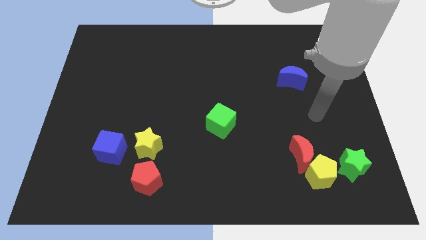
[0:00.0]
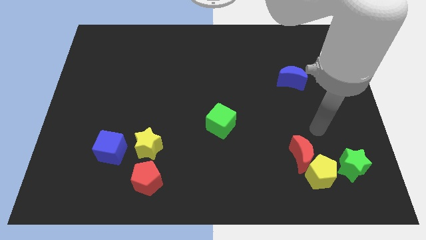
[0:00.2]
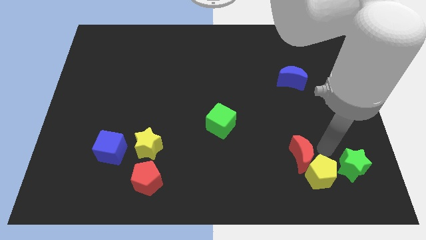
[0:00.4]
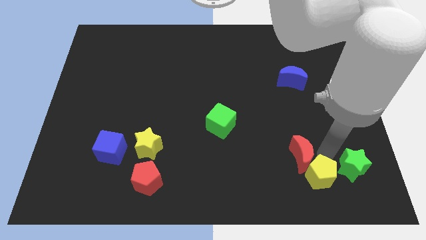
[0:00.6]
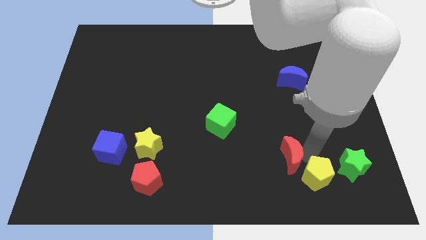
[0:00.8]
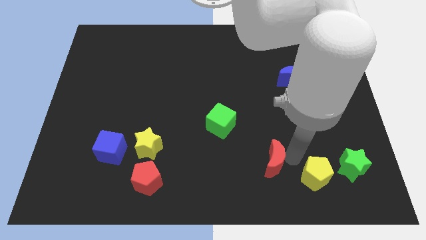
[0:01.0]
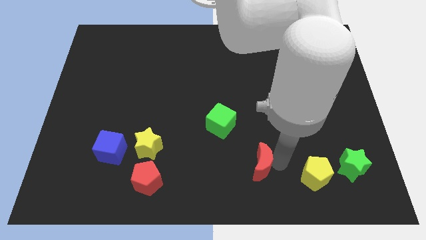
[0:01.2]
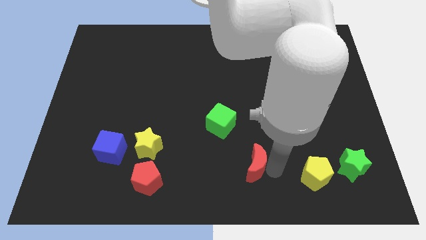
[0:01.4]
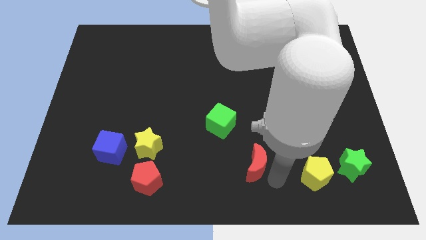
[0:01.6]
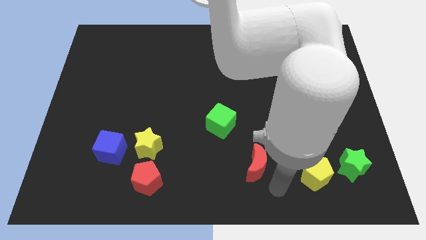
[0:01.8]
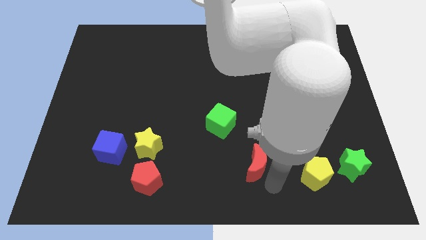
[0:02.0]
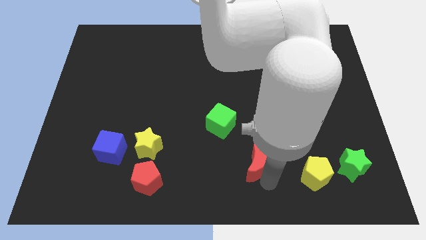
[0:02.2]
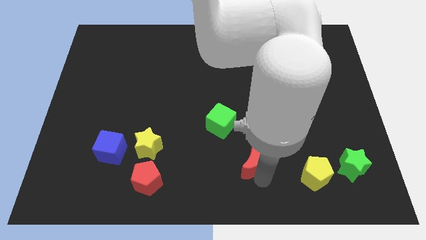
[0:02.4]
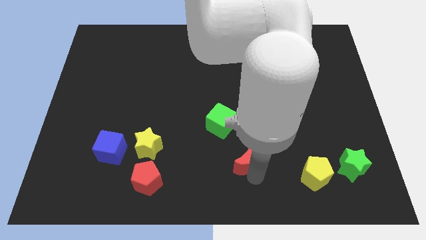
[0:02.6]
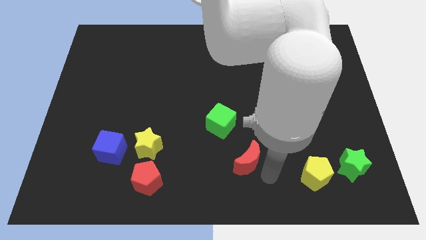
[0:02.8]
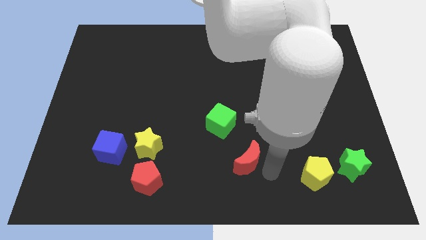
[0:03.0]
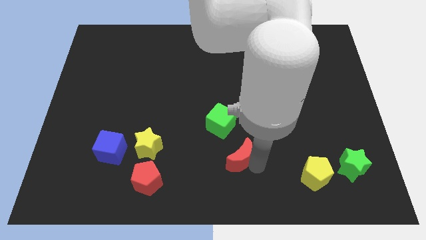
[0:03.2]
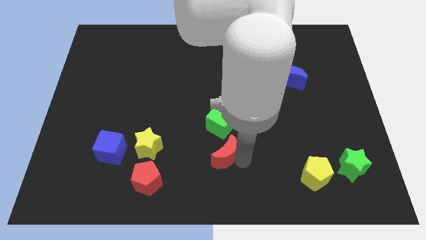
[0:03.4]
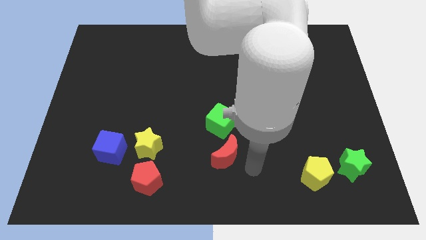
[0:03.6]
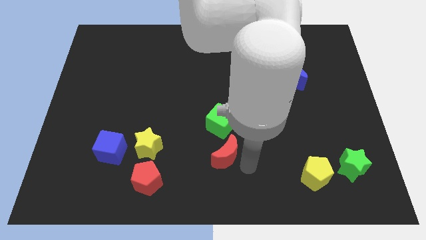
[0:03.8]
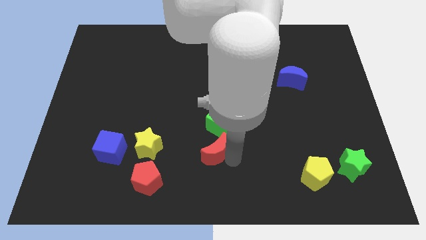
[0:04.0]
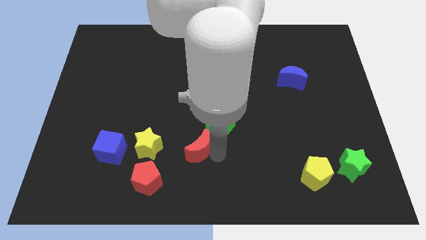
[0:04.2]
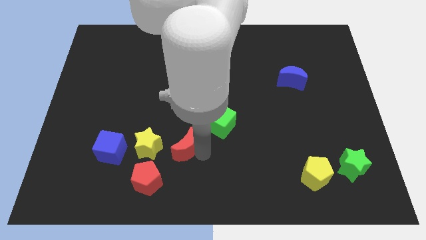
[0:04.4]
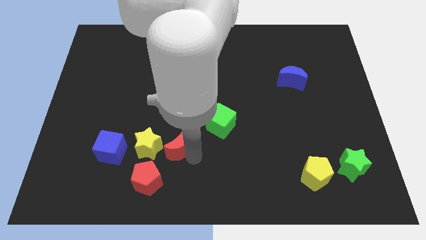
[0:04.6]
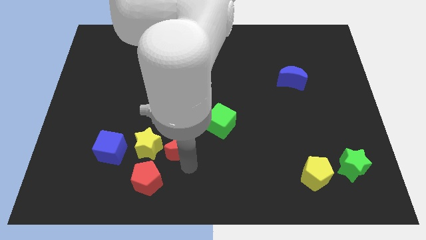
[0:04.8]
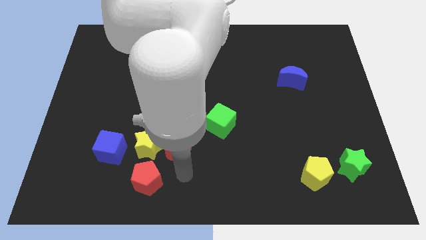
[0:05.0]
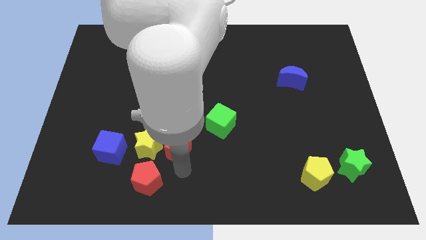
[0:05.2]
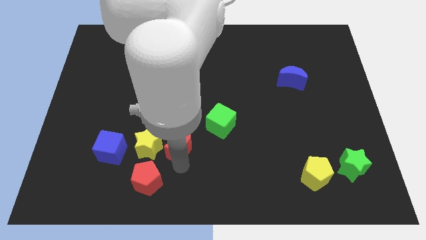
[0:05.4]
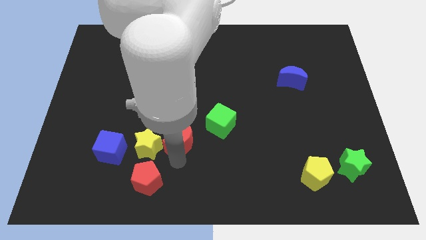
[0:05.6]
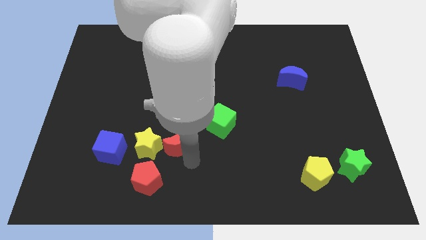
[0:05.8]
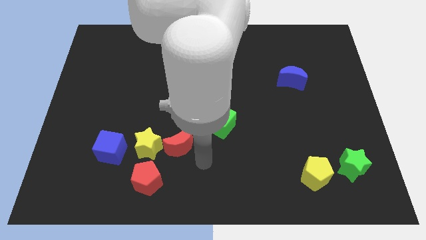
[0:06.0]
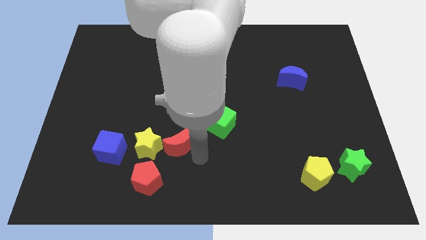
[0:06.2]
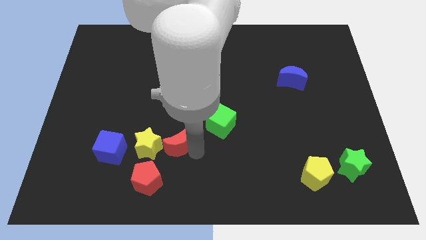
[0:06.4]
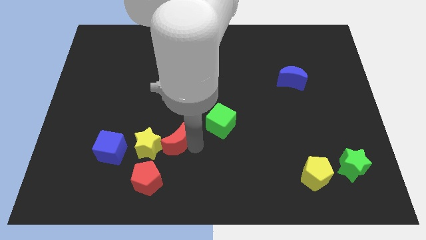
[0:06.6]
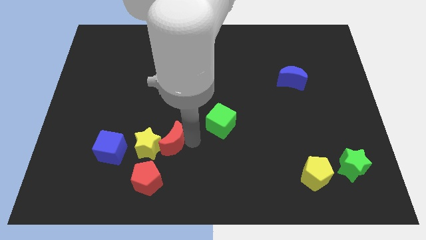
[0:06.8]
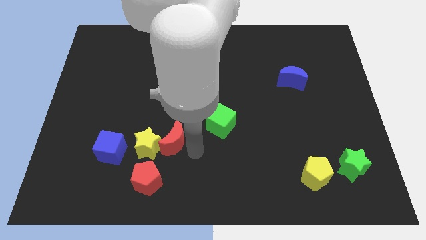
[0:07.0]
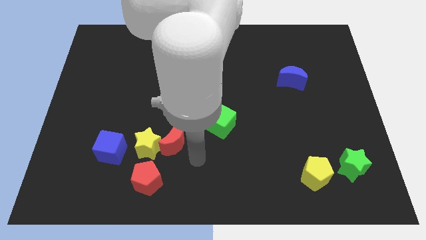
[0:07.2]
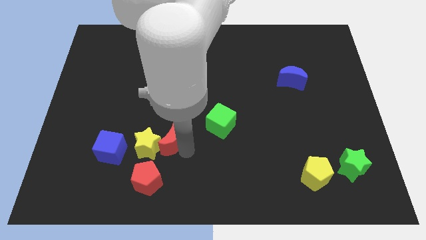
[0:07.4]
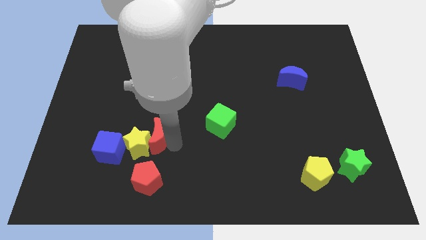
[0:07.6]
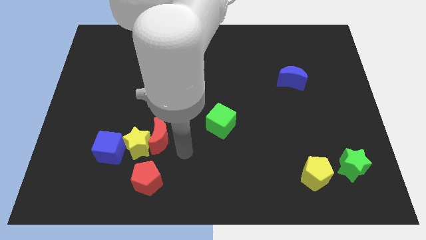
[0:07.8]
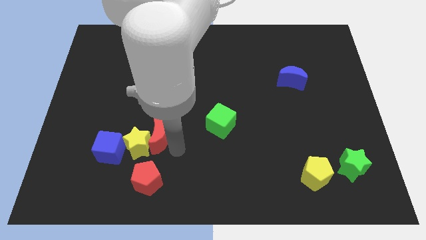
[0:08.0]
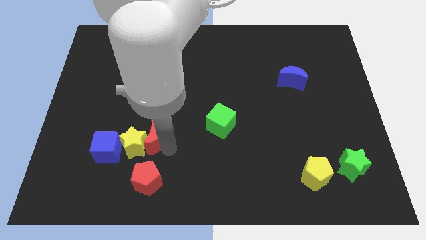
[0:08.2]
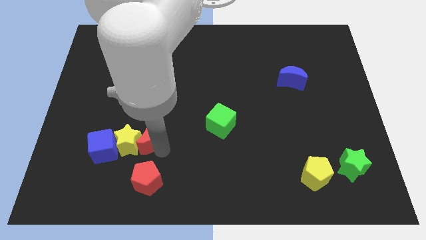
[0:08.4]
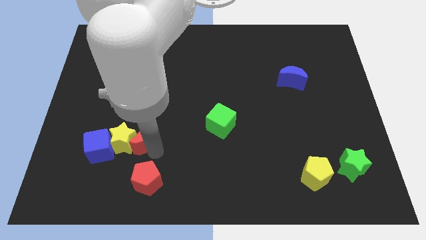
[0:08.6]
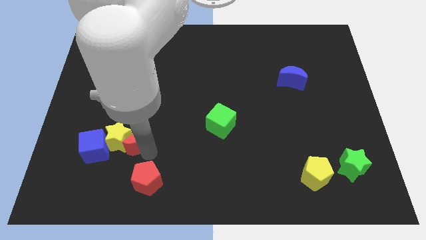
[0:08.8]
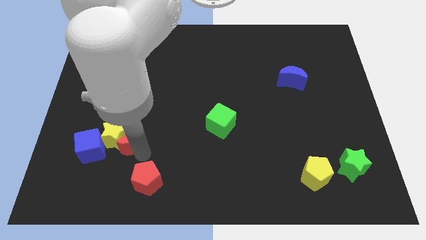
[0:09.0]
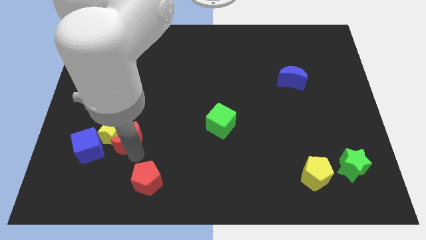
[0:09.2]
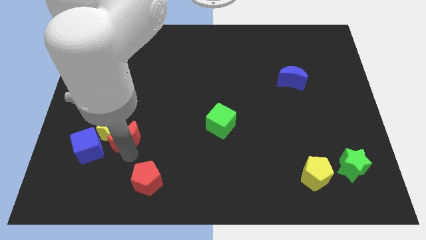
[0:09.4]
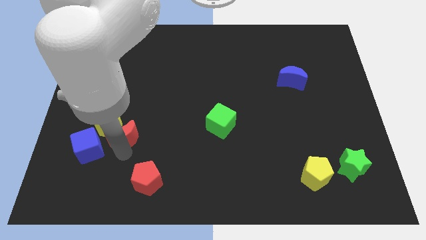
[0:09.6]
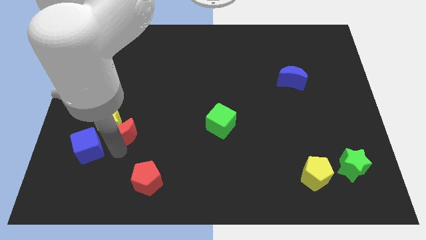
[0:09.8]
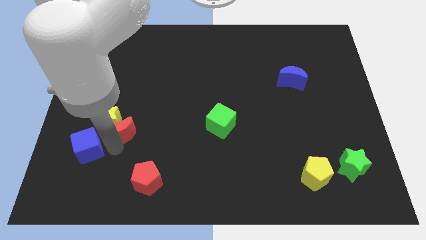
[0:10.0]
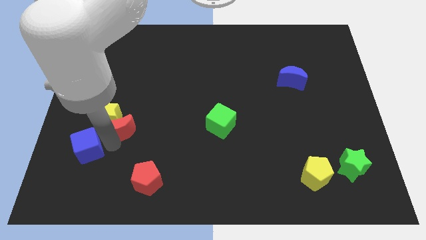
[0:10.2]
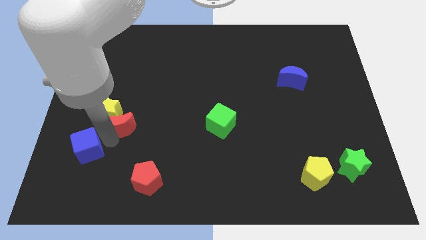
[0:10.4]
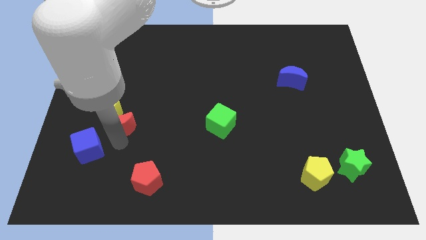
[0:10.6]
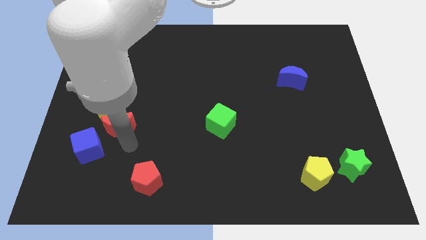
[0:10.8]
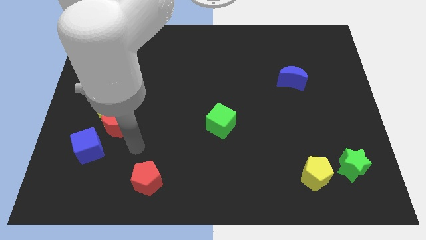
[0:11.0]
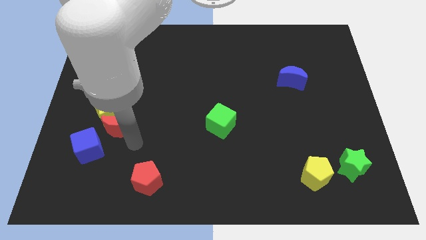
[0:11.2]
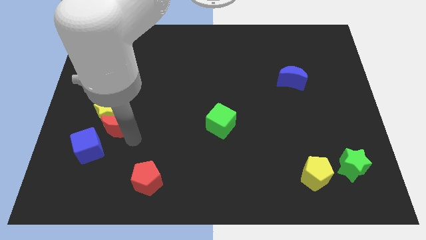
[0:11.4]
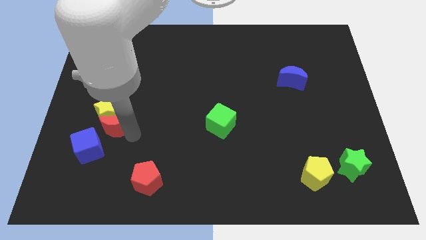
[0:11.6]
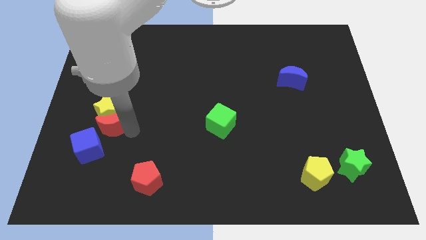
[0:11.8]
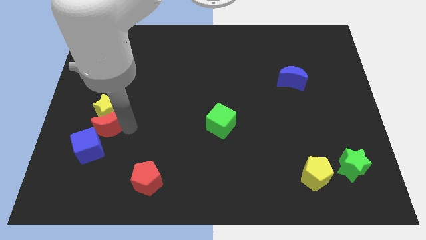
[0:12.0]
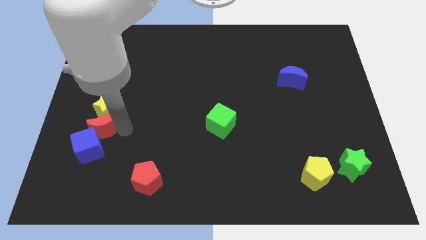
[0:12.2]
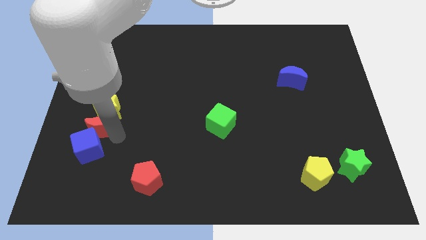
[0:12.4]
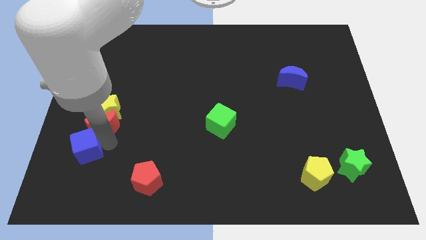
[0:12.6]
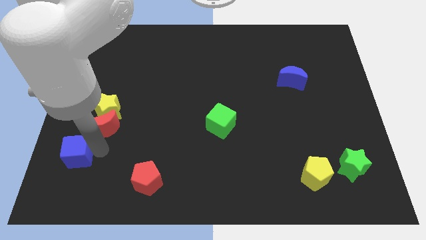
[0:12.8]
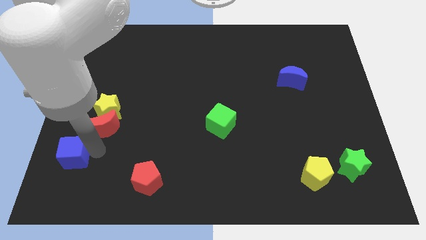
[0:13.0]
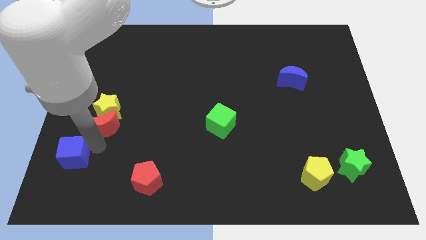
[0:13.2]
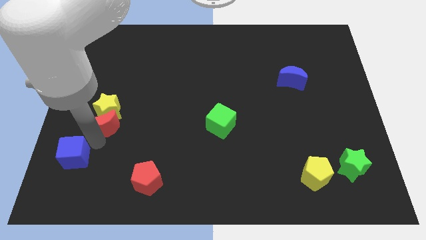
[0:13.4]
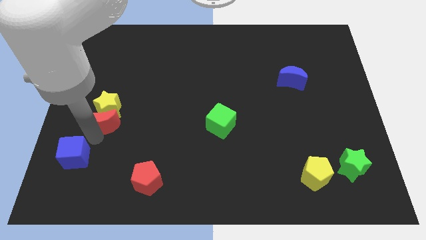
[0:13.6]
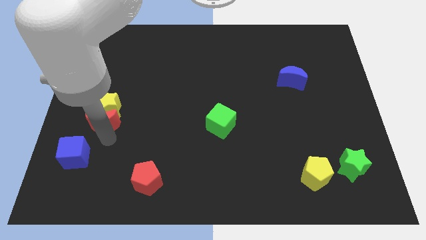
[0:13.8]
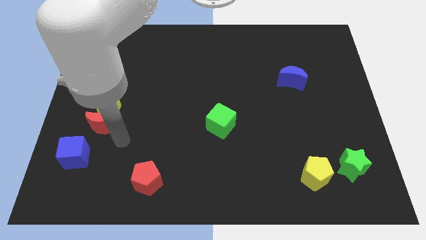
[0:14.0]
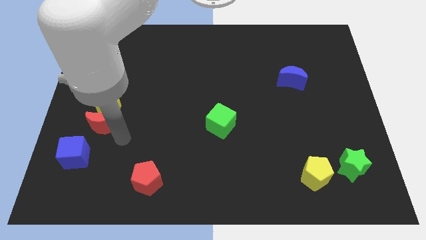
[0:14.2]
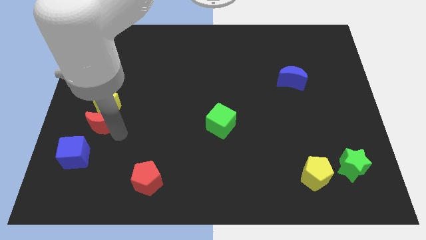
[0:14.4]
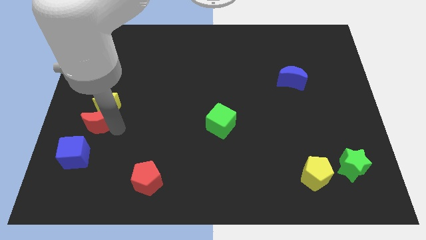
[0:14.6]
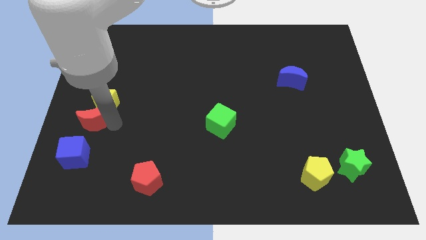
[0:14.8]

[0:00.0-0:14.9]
move the red moon to the center left
